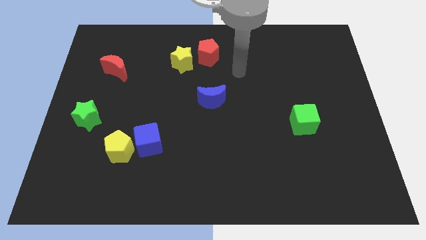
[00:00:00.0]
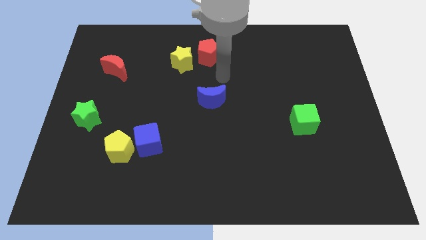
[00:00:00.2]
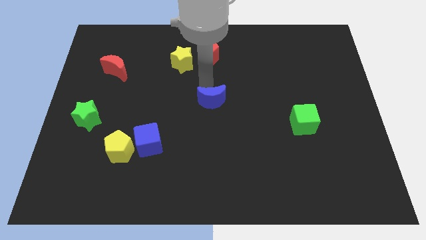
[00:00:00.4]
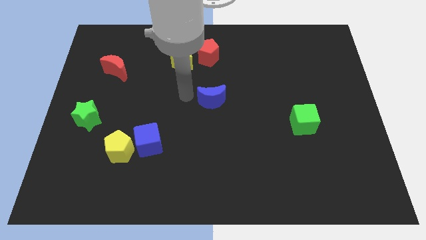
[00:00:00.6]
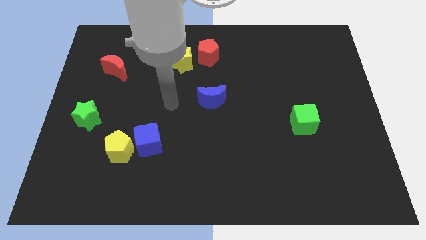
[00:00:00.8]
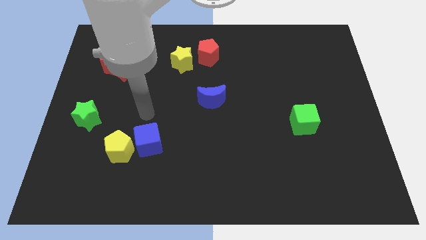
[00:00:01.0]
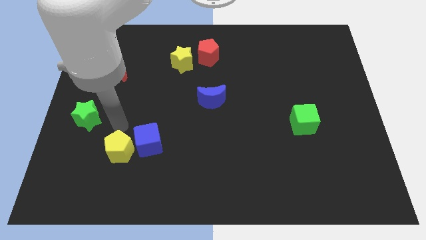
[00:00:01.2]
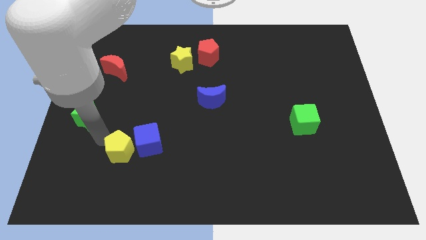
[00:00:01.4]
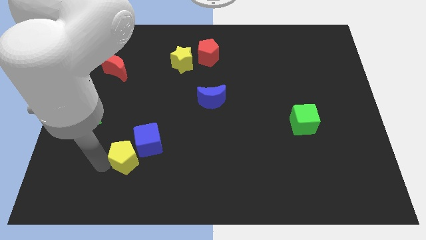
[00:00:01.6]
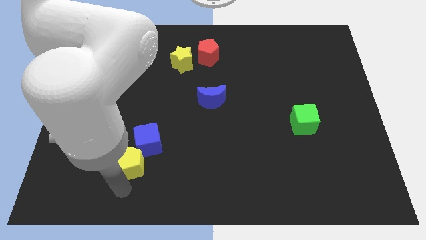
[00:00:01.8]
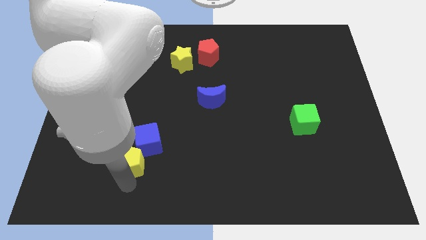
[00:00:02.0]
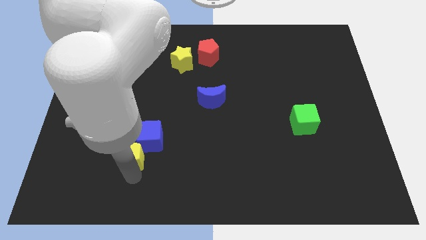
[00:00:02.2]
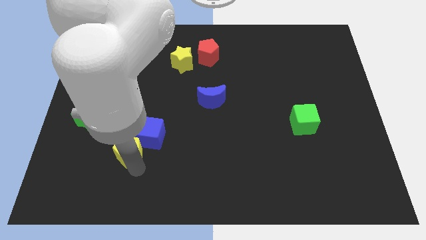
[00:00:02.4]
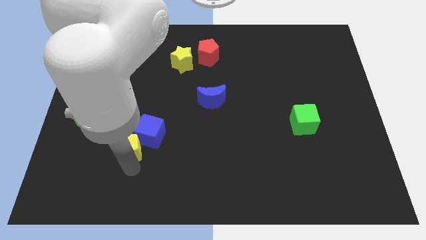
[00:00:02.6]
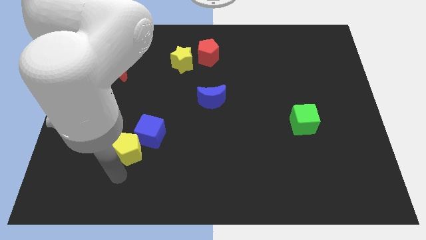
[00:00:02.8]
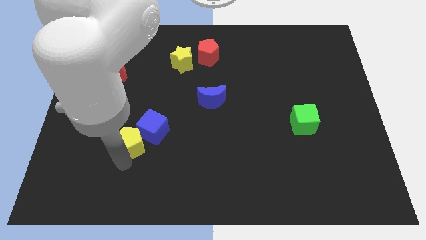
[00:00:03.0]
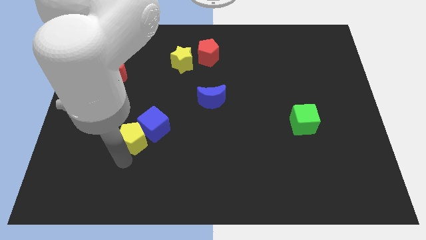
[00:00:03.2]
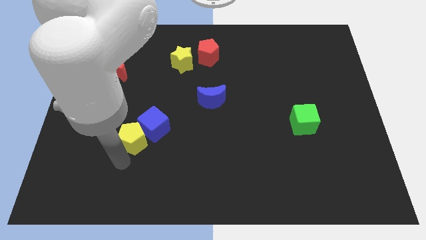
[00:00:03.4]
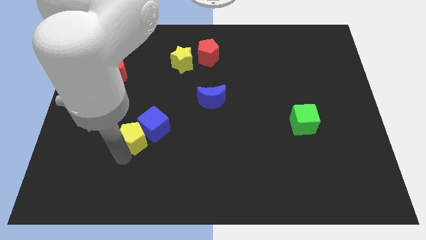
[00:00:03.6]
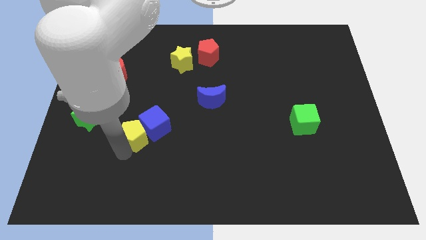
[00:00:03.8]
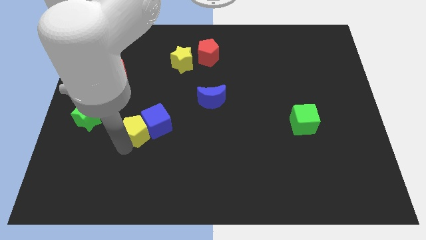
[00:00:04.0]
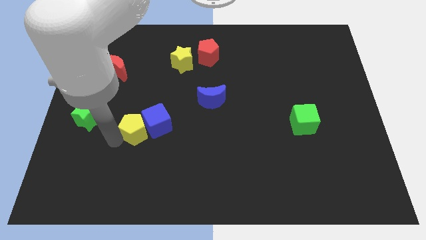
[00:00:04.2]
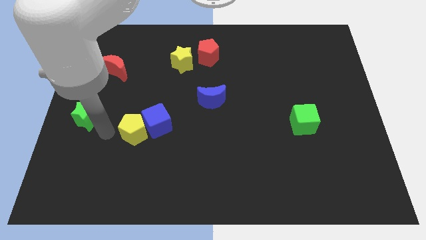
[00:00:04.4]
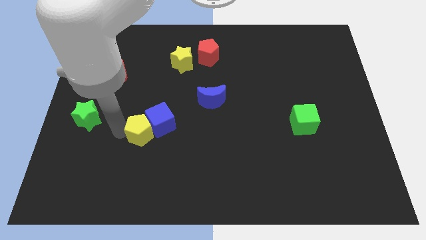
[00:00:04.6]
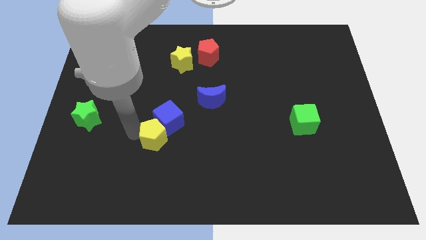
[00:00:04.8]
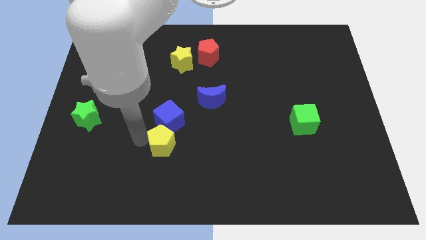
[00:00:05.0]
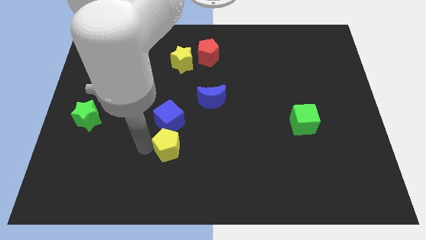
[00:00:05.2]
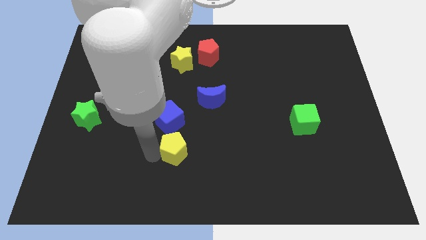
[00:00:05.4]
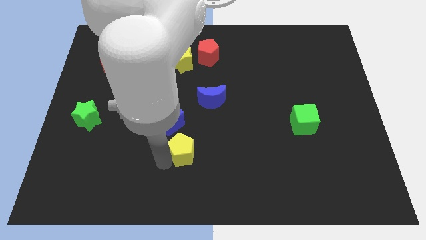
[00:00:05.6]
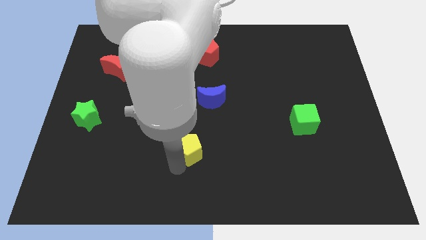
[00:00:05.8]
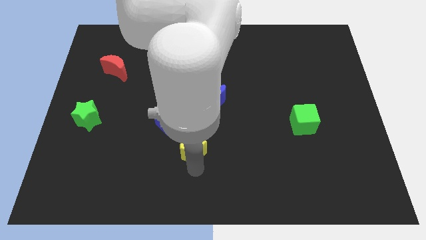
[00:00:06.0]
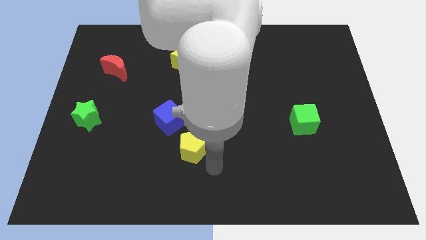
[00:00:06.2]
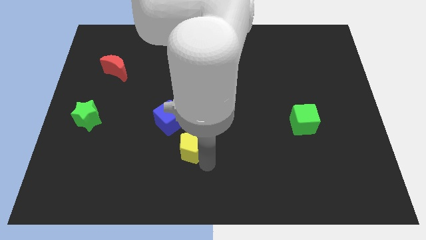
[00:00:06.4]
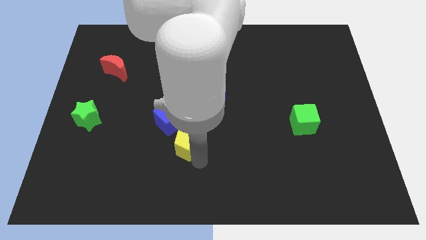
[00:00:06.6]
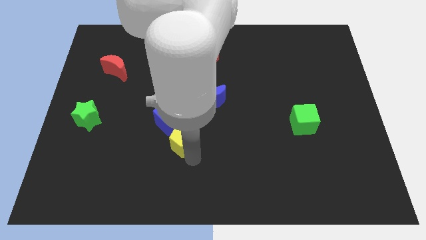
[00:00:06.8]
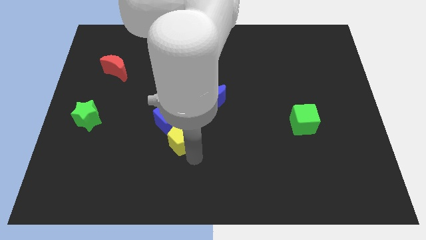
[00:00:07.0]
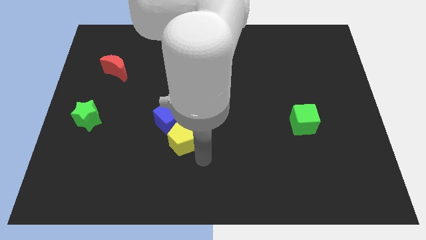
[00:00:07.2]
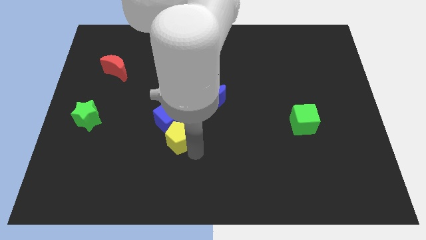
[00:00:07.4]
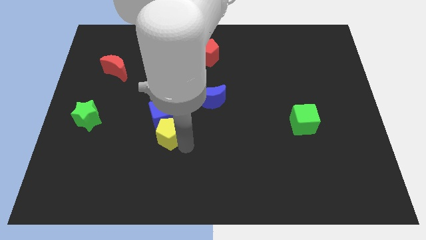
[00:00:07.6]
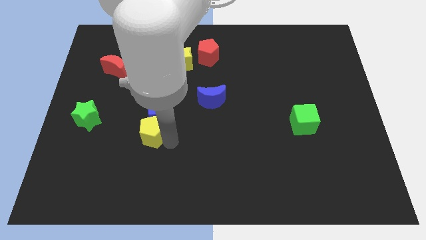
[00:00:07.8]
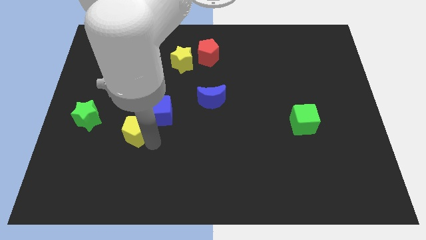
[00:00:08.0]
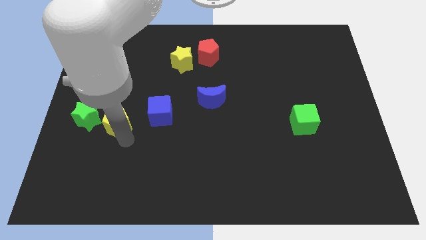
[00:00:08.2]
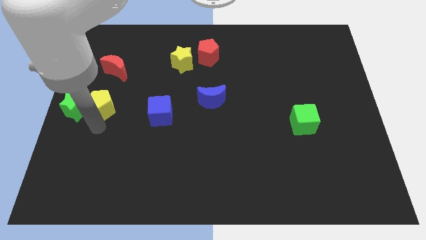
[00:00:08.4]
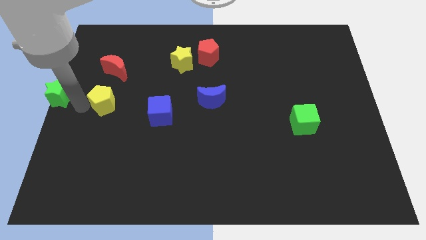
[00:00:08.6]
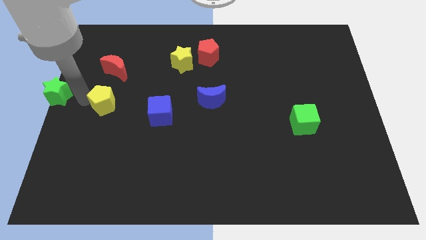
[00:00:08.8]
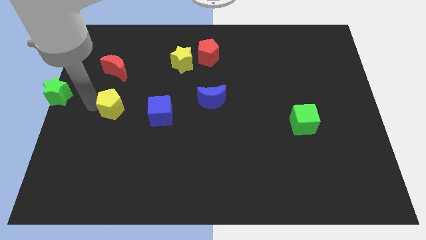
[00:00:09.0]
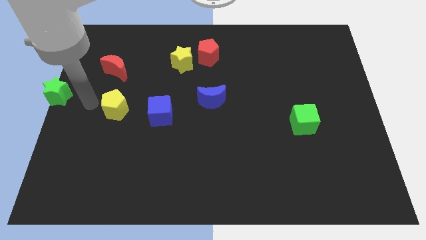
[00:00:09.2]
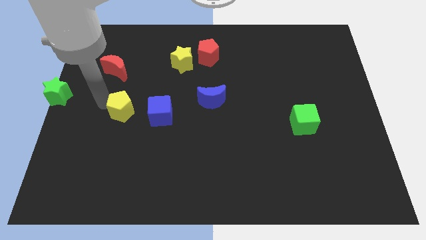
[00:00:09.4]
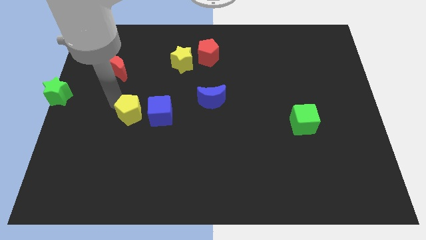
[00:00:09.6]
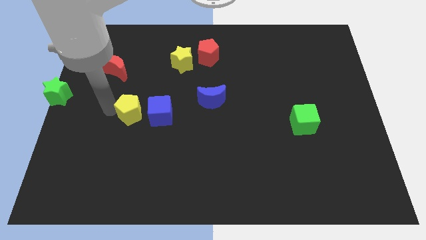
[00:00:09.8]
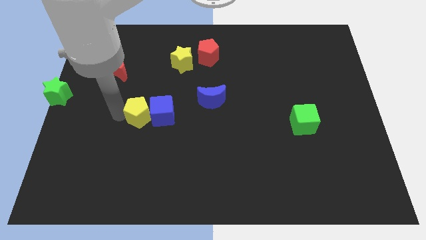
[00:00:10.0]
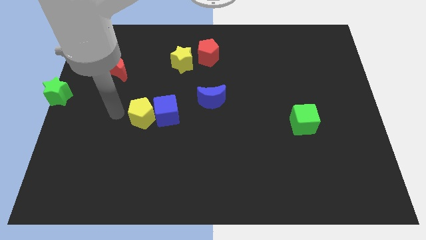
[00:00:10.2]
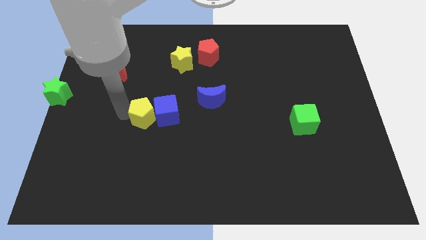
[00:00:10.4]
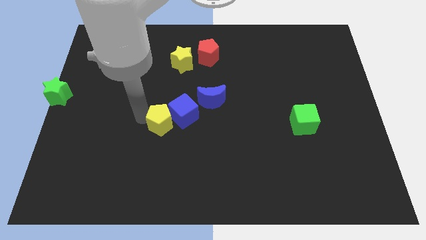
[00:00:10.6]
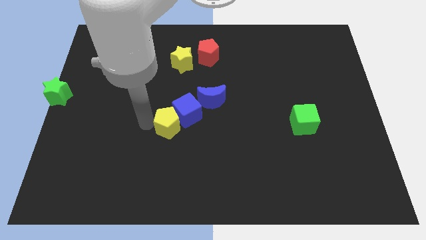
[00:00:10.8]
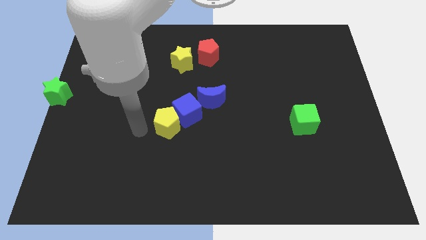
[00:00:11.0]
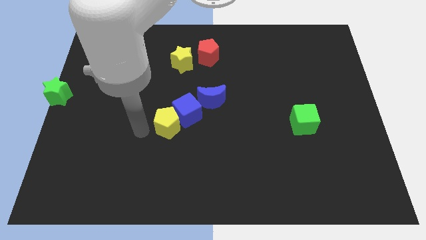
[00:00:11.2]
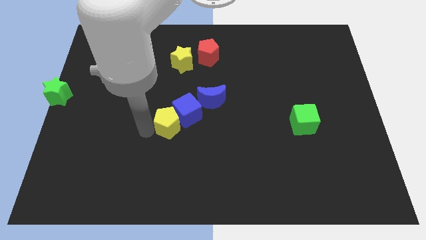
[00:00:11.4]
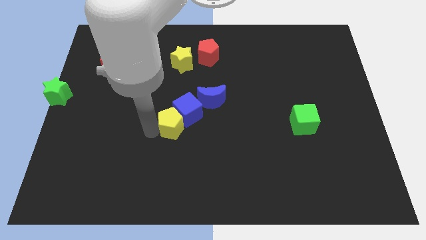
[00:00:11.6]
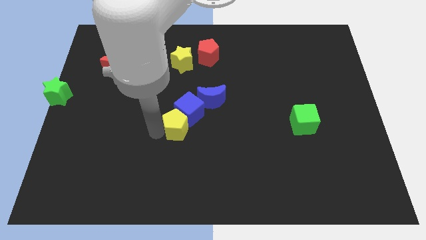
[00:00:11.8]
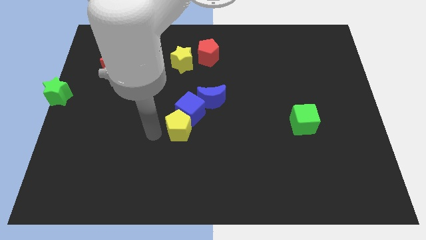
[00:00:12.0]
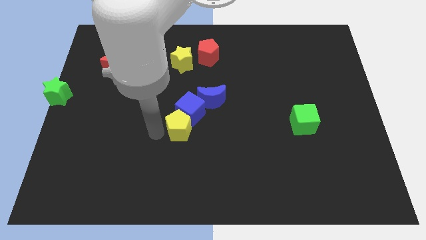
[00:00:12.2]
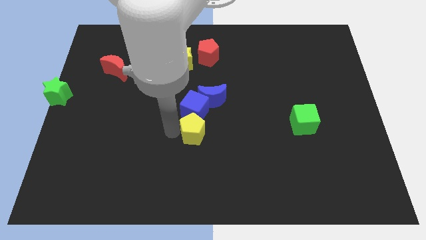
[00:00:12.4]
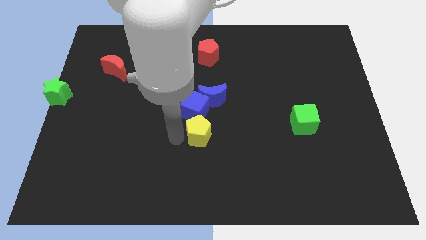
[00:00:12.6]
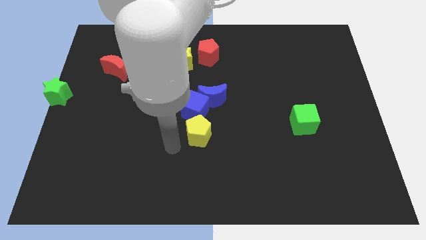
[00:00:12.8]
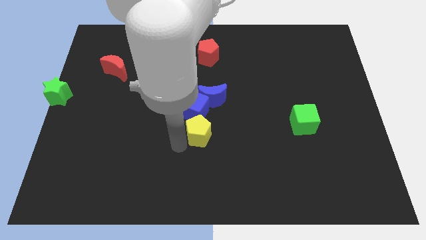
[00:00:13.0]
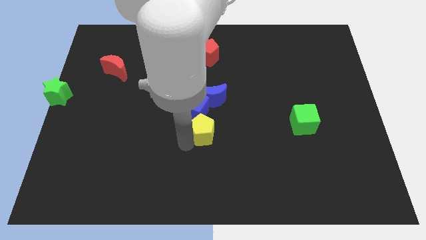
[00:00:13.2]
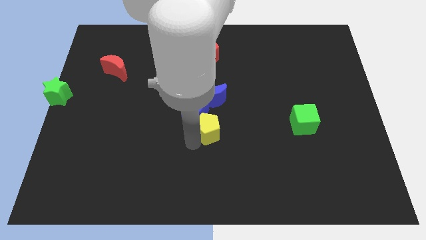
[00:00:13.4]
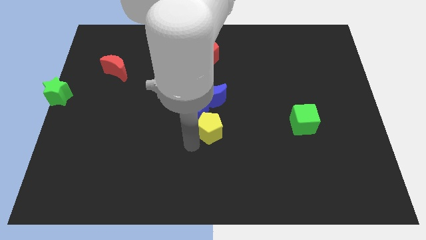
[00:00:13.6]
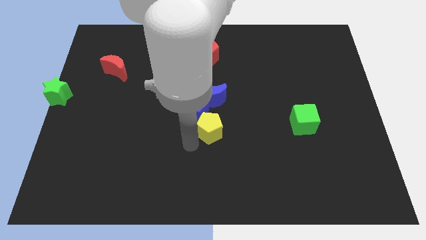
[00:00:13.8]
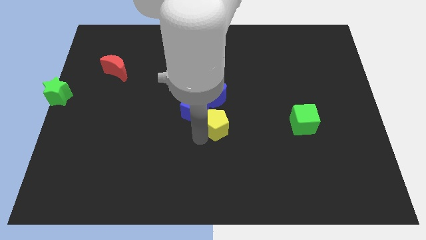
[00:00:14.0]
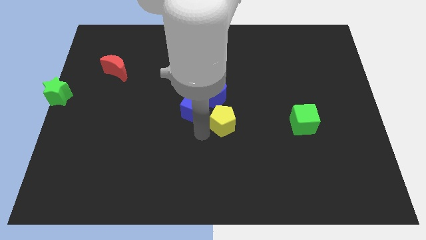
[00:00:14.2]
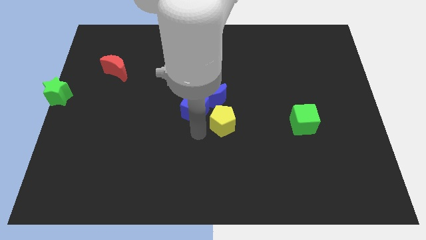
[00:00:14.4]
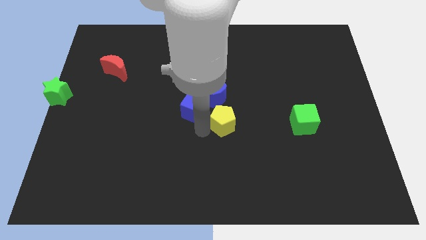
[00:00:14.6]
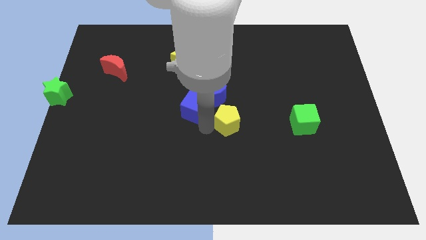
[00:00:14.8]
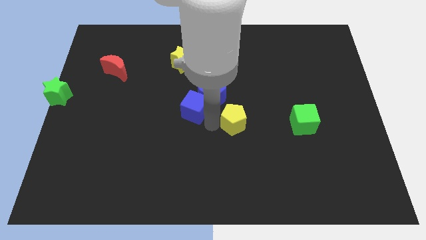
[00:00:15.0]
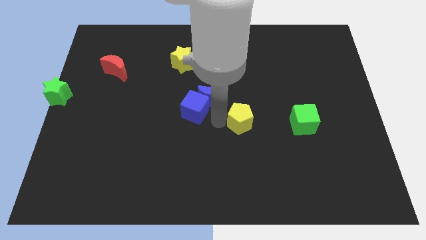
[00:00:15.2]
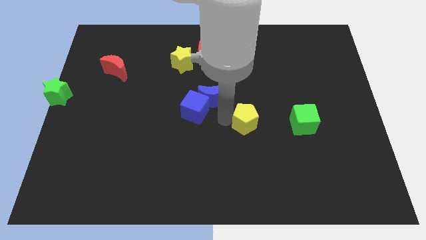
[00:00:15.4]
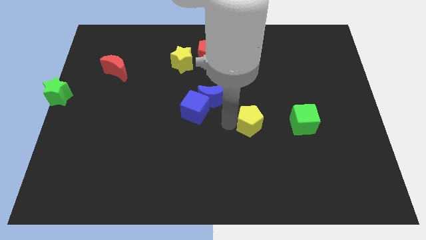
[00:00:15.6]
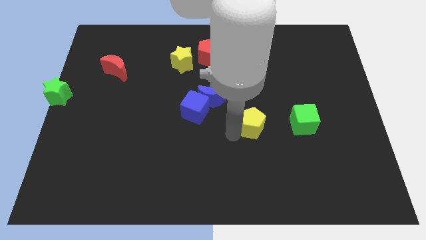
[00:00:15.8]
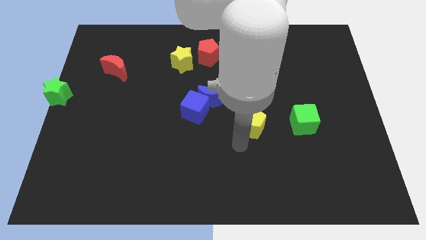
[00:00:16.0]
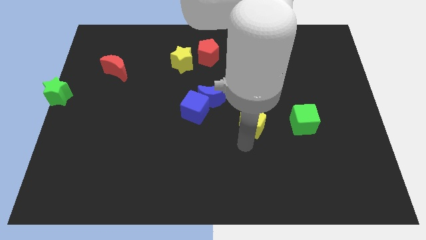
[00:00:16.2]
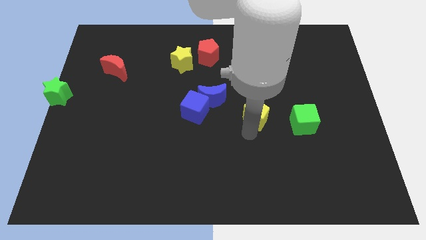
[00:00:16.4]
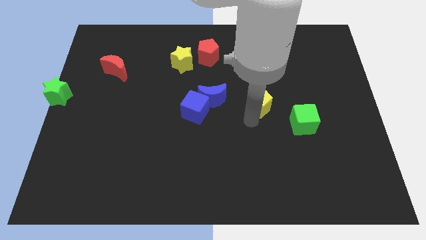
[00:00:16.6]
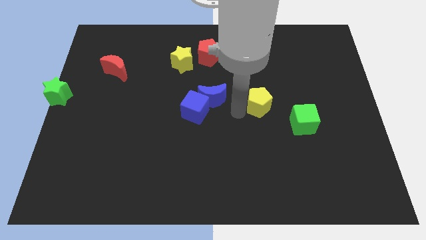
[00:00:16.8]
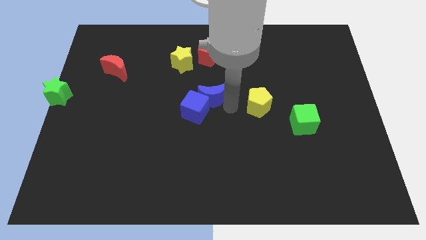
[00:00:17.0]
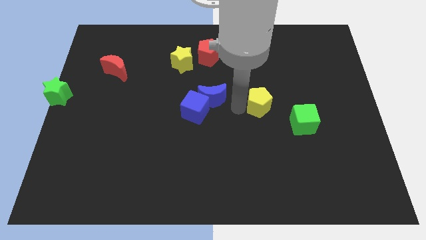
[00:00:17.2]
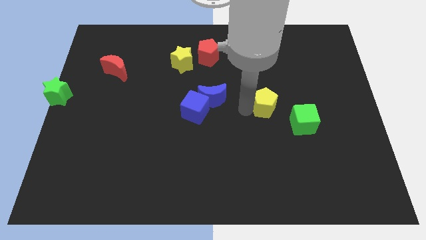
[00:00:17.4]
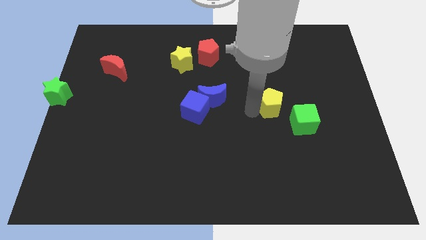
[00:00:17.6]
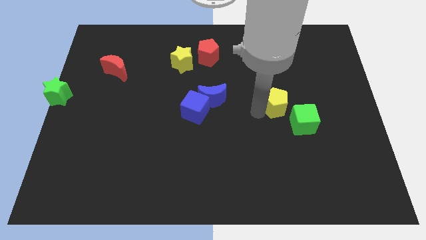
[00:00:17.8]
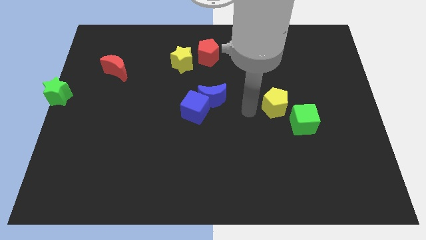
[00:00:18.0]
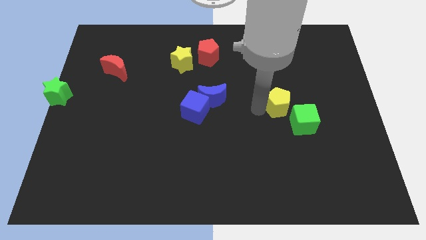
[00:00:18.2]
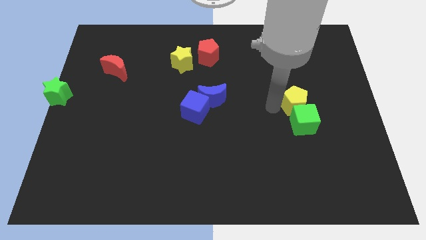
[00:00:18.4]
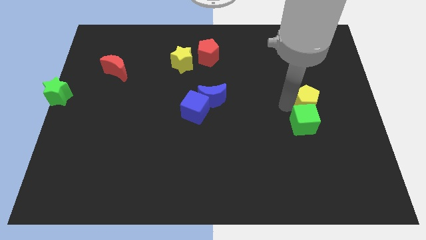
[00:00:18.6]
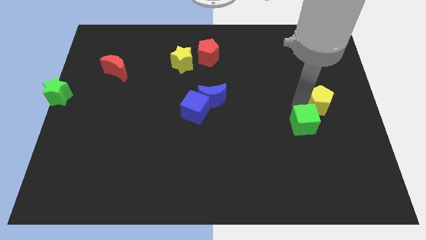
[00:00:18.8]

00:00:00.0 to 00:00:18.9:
slide the yellow pentagon to the center right
